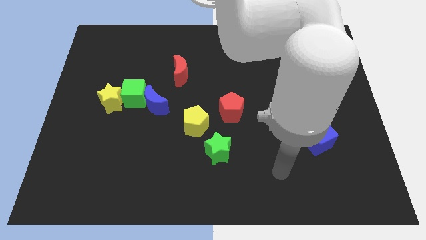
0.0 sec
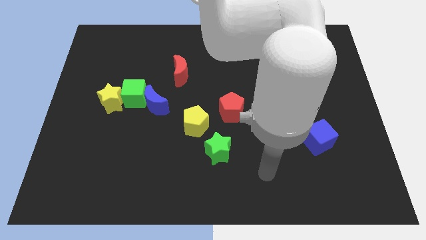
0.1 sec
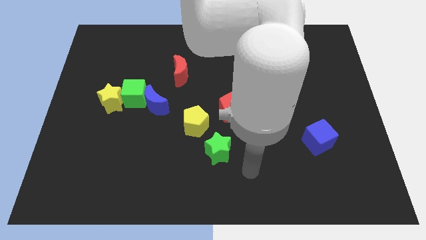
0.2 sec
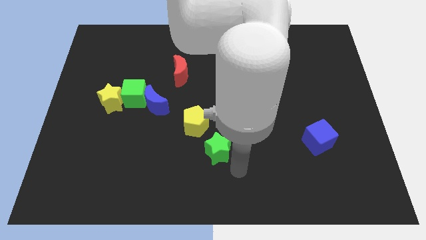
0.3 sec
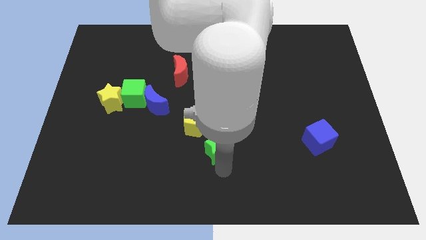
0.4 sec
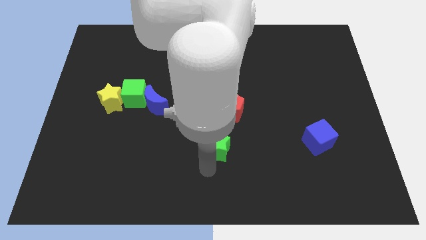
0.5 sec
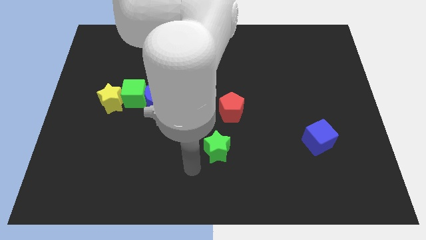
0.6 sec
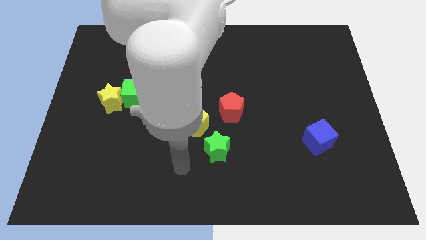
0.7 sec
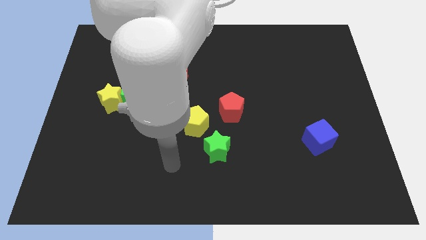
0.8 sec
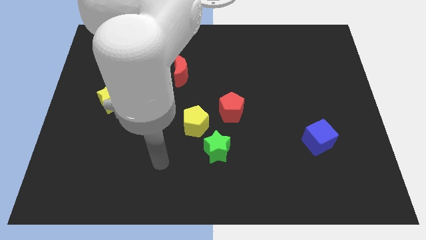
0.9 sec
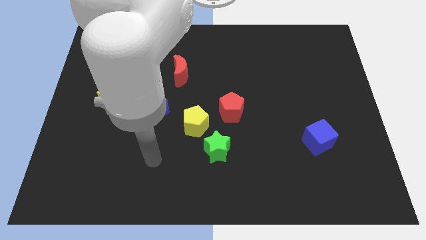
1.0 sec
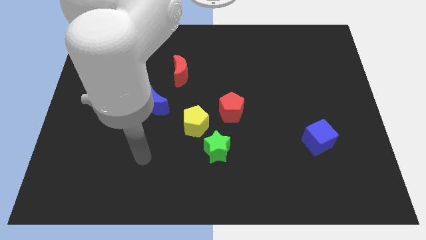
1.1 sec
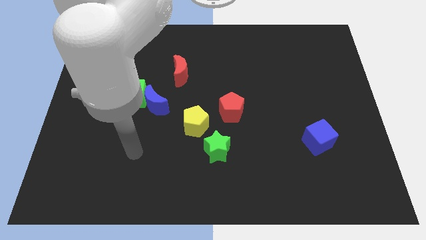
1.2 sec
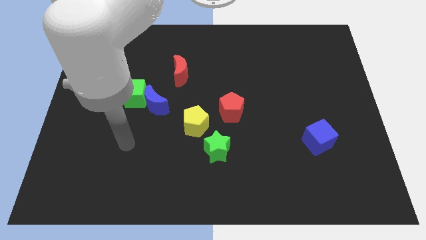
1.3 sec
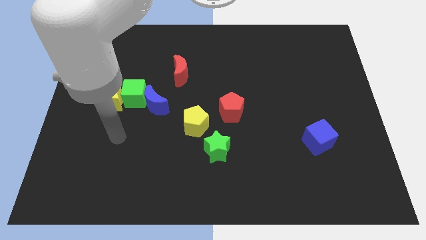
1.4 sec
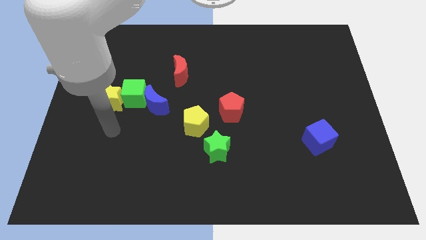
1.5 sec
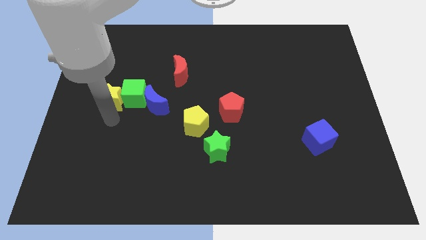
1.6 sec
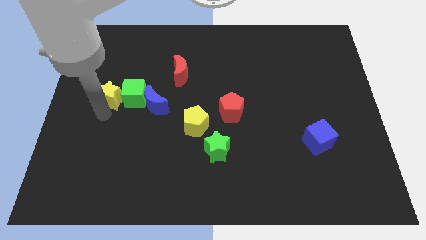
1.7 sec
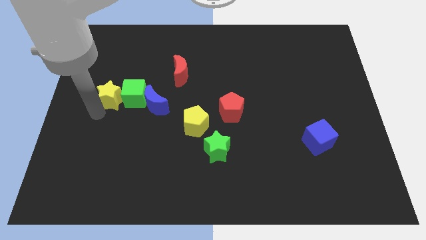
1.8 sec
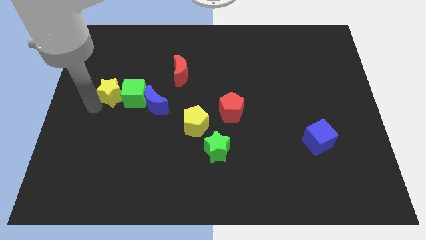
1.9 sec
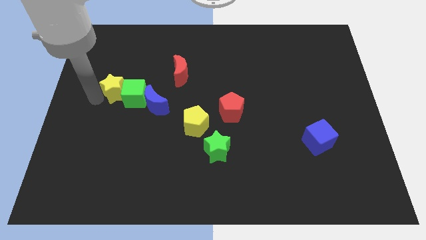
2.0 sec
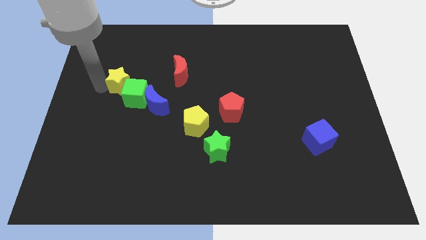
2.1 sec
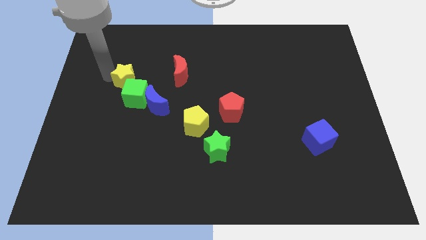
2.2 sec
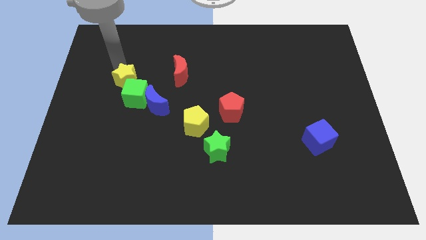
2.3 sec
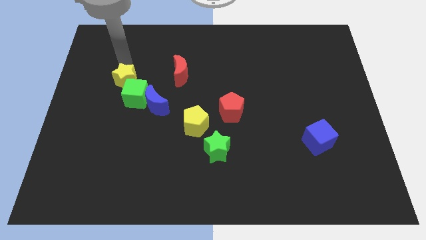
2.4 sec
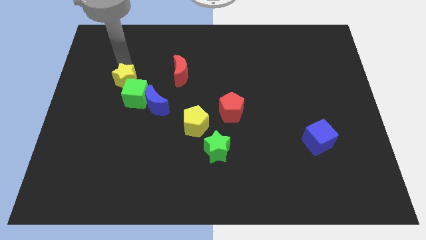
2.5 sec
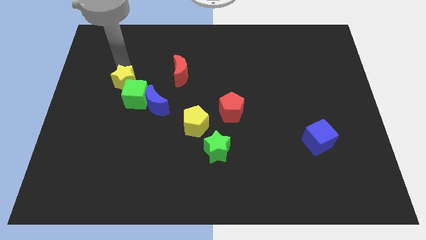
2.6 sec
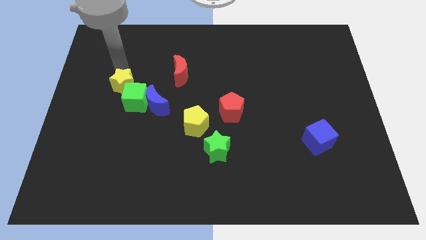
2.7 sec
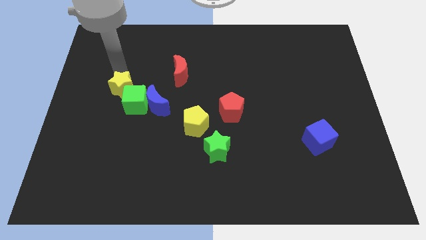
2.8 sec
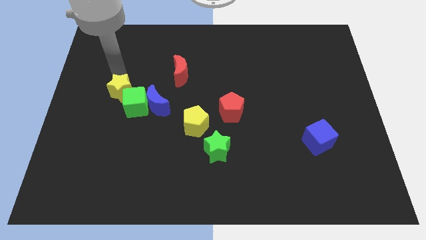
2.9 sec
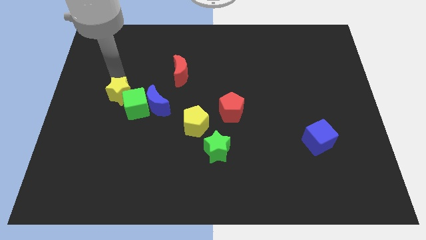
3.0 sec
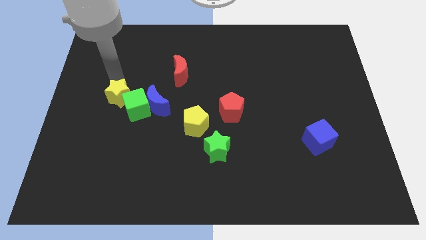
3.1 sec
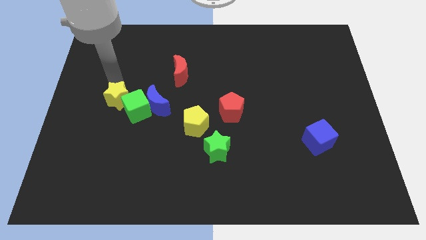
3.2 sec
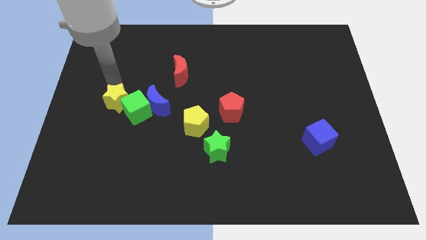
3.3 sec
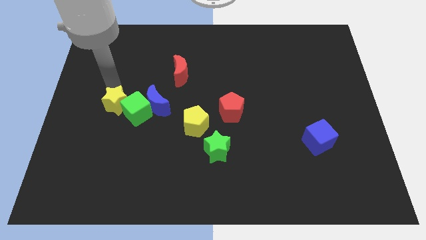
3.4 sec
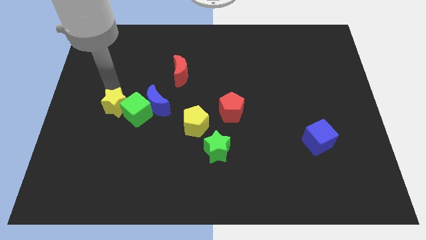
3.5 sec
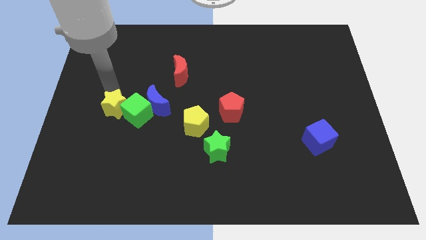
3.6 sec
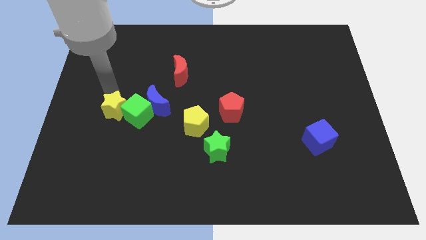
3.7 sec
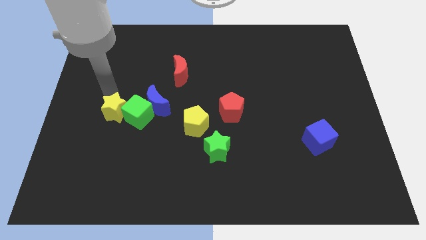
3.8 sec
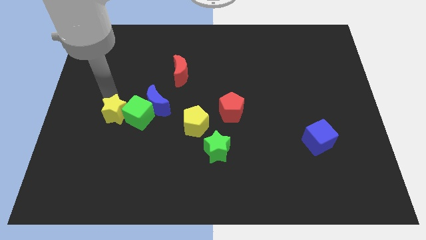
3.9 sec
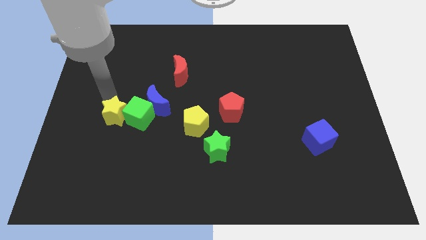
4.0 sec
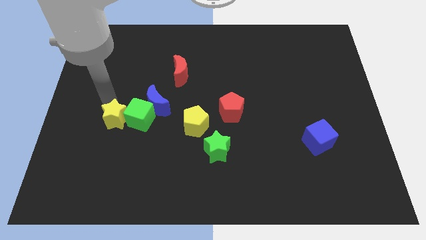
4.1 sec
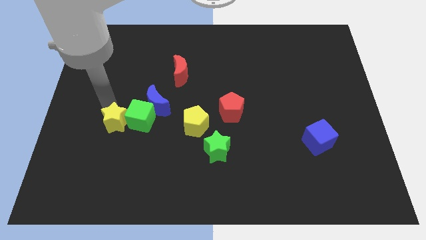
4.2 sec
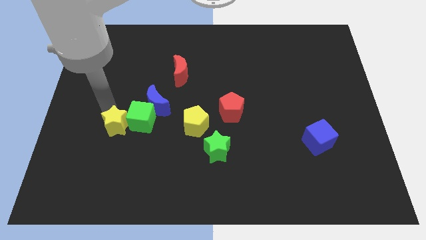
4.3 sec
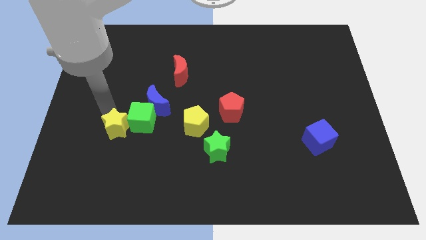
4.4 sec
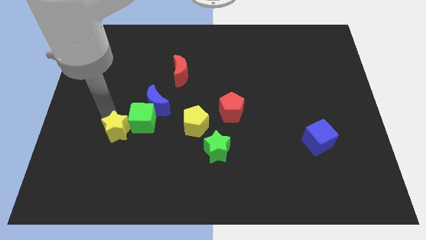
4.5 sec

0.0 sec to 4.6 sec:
move the yellow star diagonally downwards and to the right a little

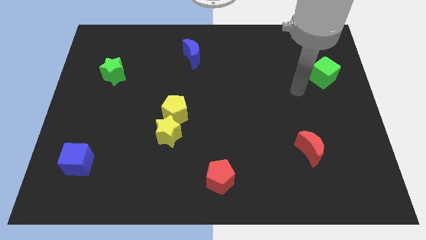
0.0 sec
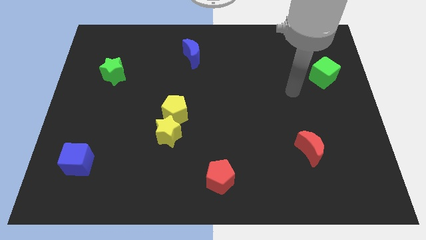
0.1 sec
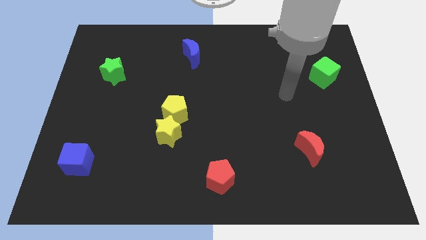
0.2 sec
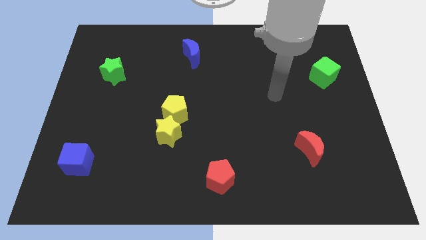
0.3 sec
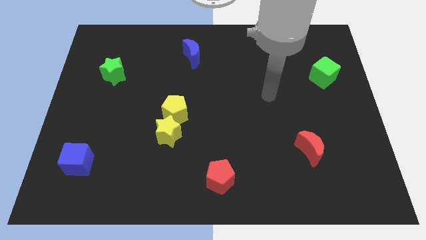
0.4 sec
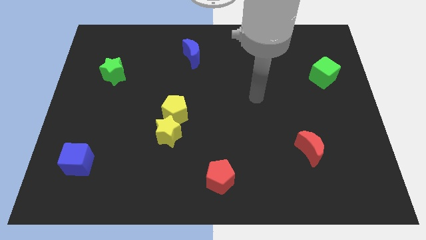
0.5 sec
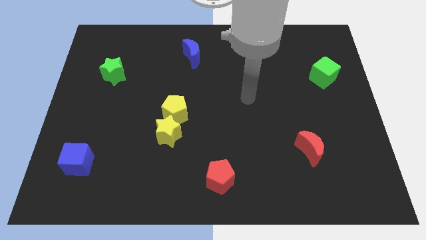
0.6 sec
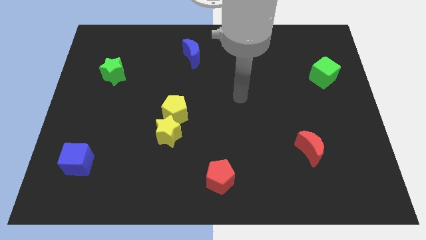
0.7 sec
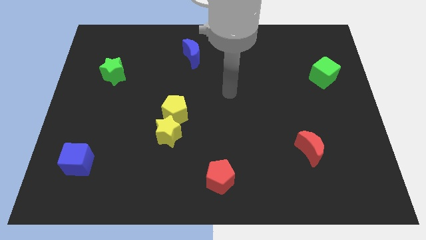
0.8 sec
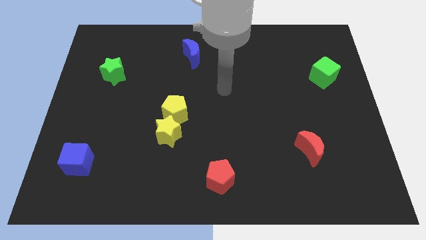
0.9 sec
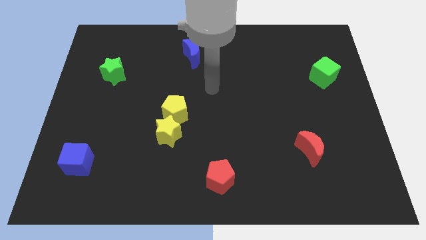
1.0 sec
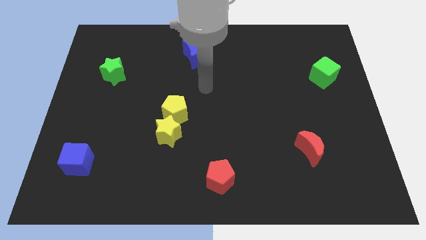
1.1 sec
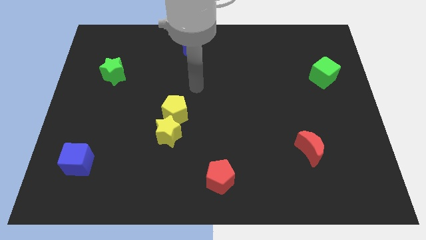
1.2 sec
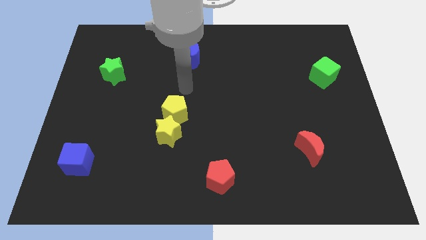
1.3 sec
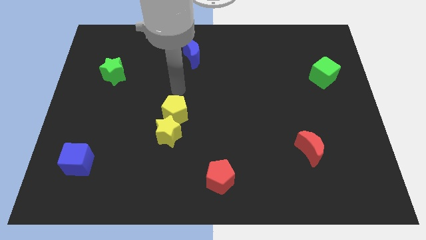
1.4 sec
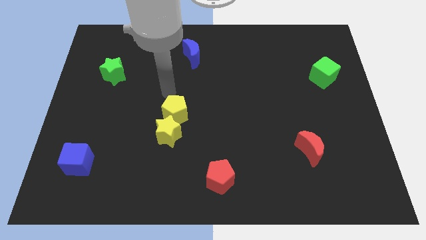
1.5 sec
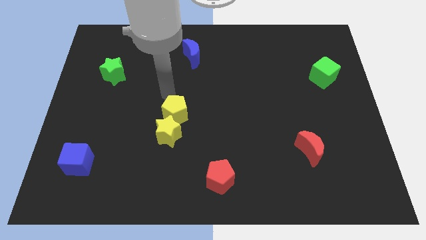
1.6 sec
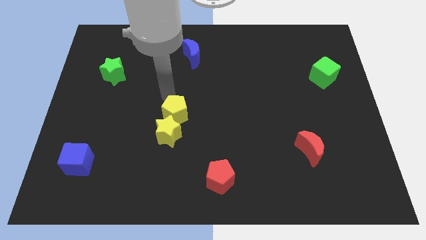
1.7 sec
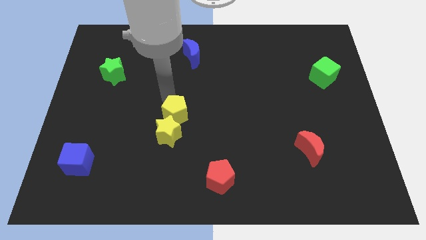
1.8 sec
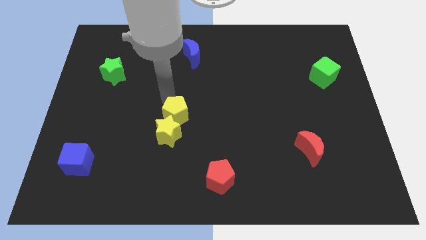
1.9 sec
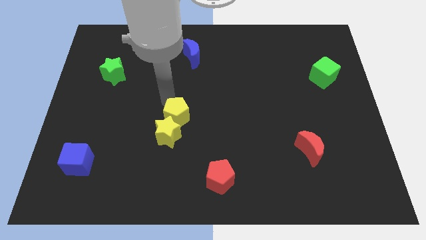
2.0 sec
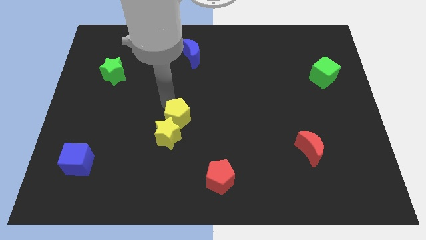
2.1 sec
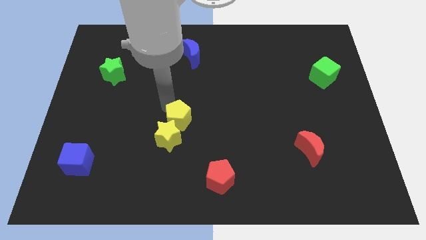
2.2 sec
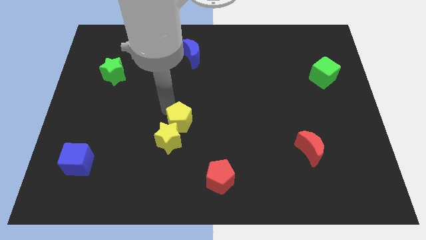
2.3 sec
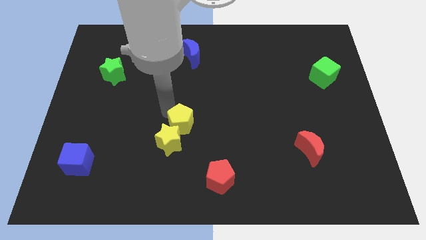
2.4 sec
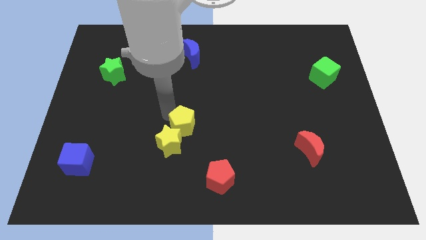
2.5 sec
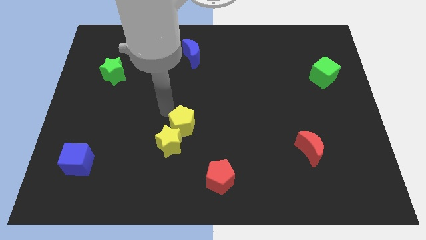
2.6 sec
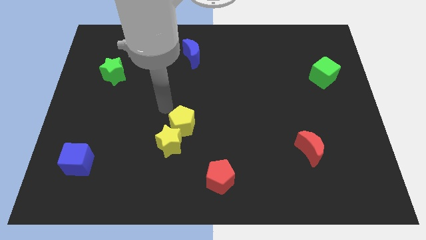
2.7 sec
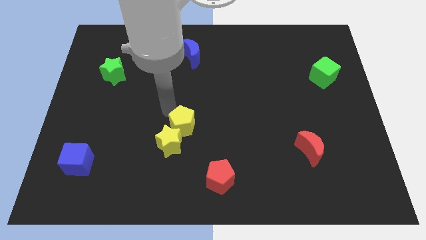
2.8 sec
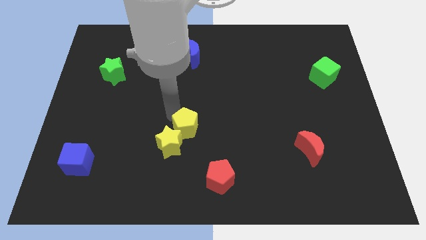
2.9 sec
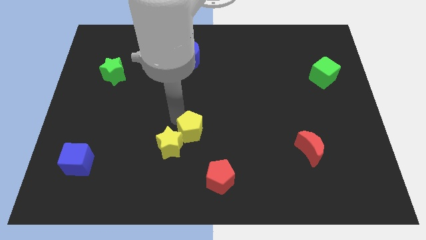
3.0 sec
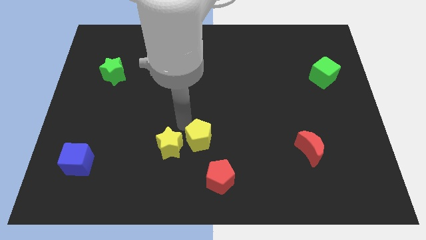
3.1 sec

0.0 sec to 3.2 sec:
slightly push the yellow pentagon downwards and to the right

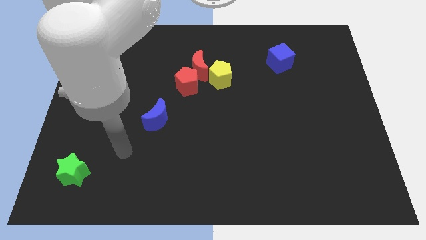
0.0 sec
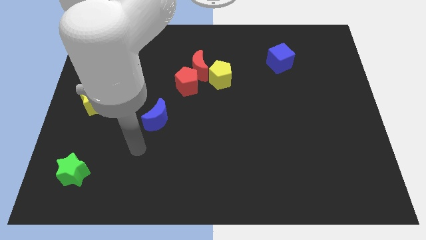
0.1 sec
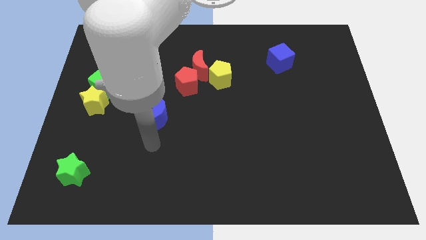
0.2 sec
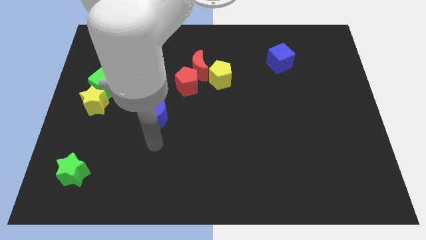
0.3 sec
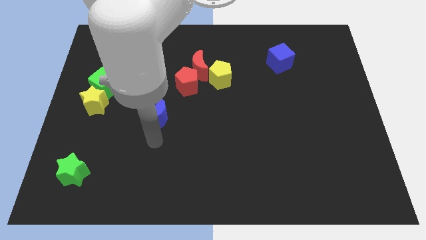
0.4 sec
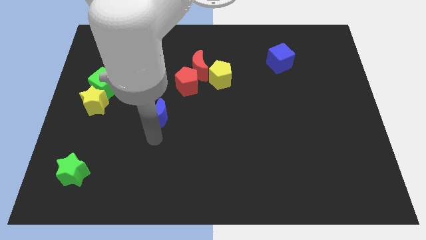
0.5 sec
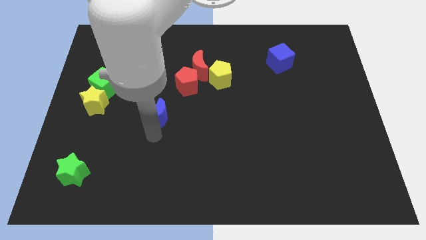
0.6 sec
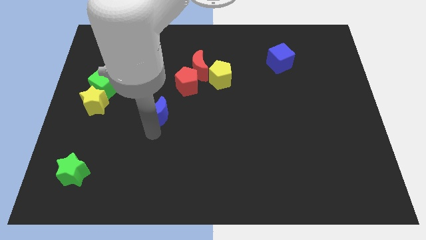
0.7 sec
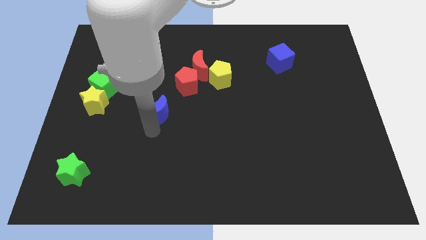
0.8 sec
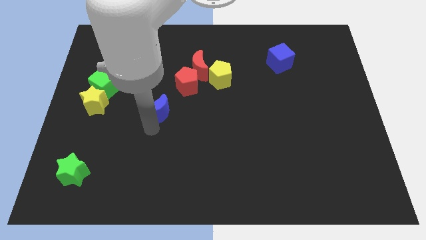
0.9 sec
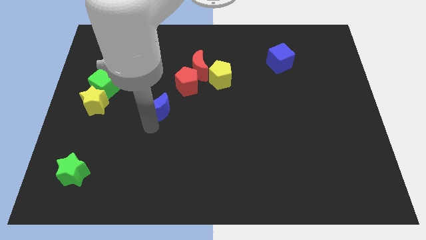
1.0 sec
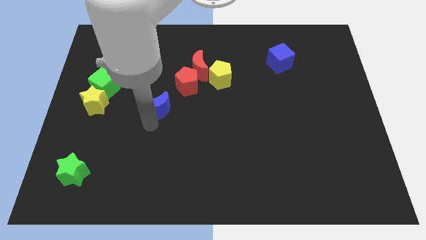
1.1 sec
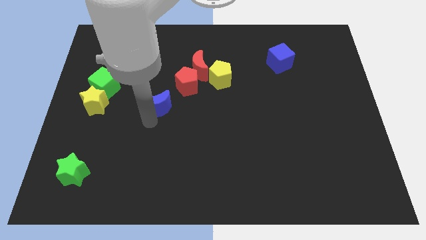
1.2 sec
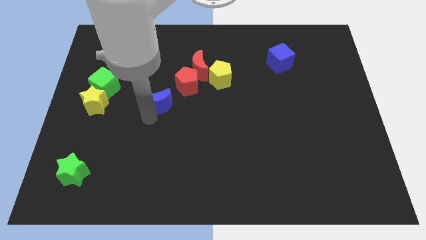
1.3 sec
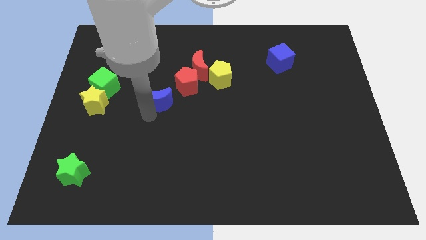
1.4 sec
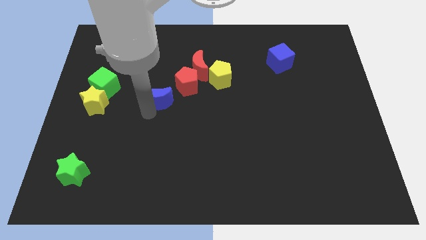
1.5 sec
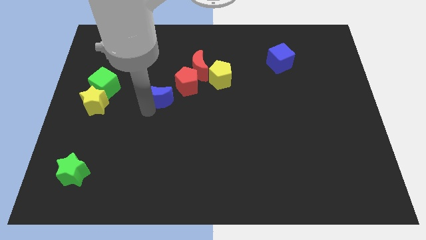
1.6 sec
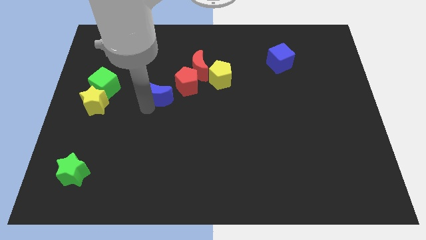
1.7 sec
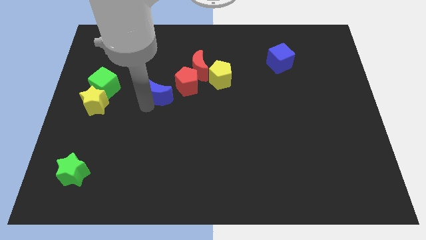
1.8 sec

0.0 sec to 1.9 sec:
move the blue moon upwards a little
